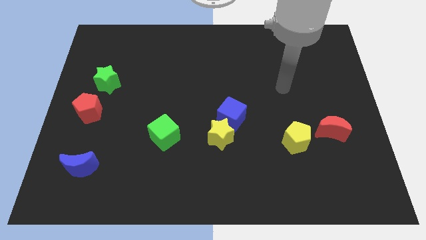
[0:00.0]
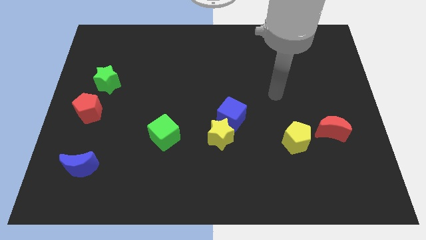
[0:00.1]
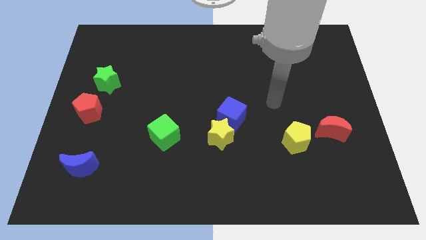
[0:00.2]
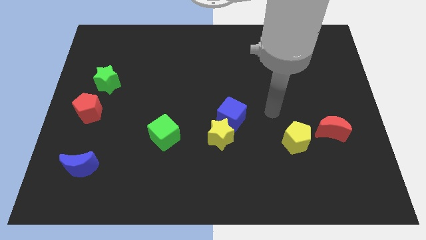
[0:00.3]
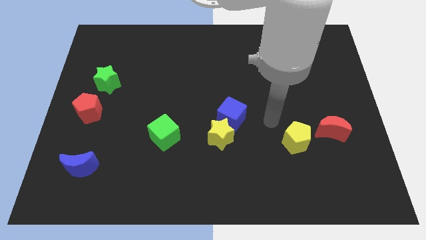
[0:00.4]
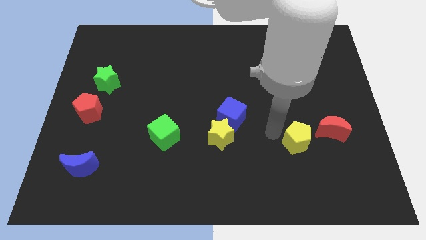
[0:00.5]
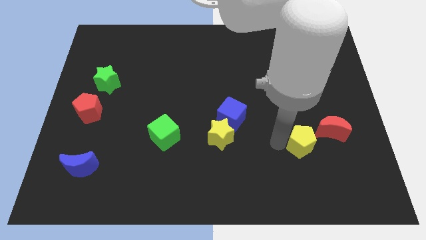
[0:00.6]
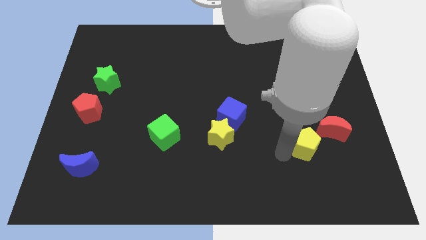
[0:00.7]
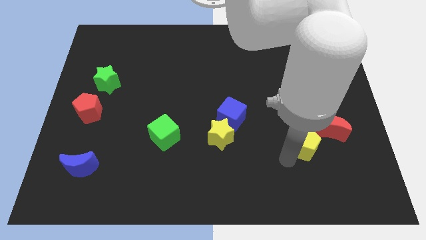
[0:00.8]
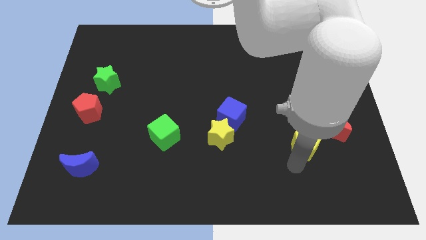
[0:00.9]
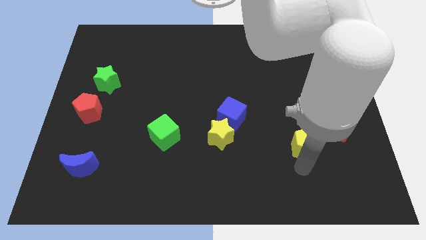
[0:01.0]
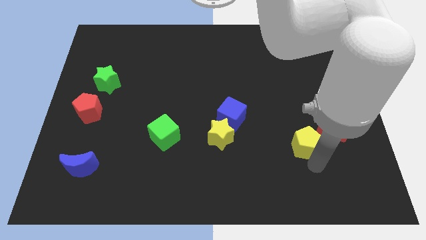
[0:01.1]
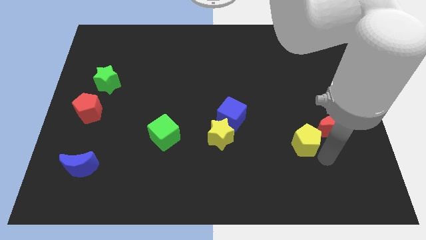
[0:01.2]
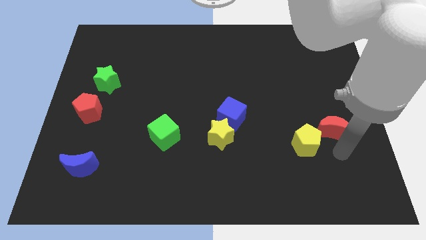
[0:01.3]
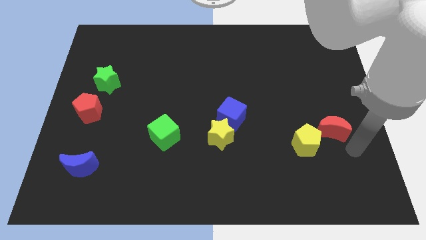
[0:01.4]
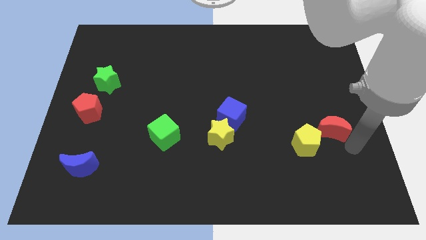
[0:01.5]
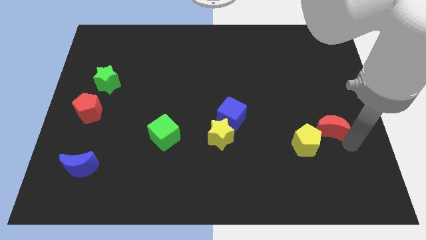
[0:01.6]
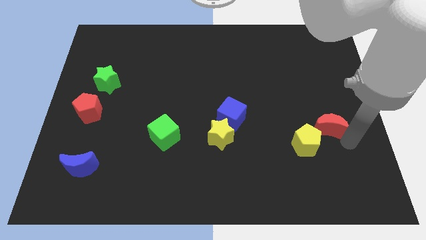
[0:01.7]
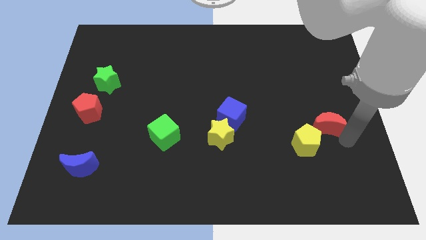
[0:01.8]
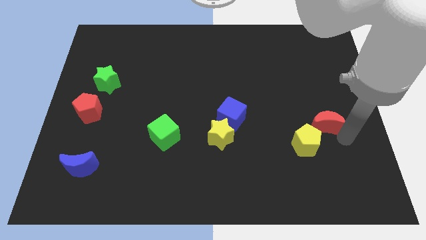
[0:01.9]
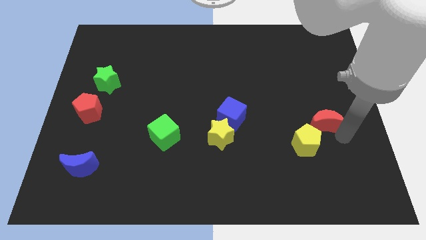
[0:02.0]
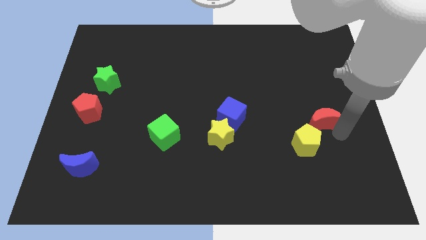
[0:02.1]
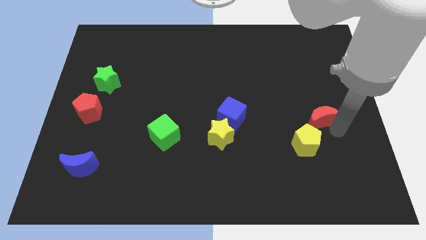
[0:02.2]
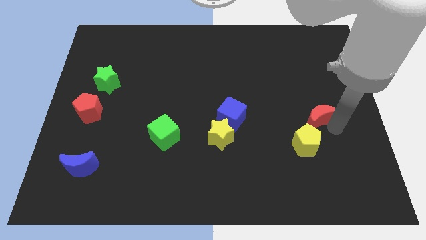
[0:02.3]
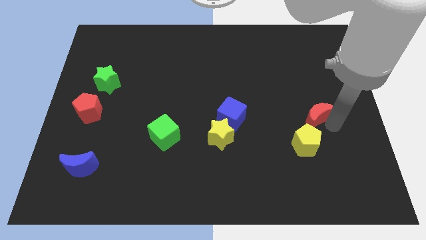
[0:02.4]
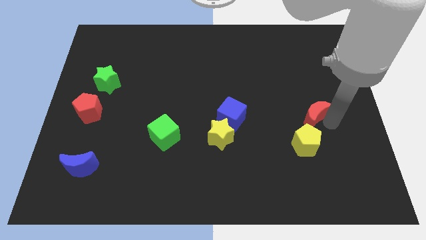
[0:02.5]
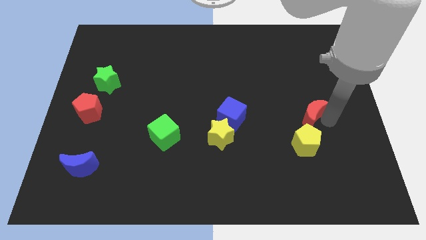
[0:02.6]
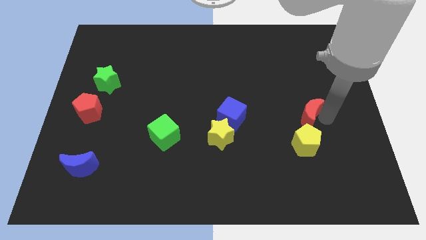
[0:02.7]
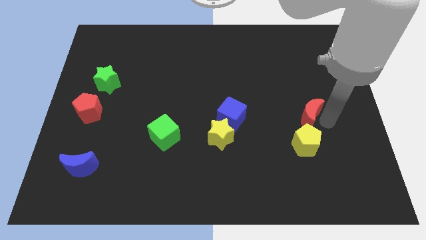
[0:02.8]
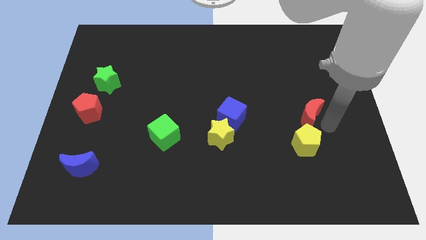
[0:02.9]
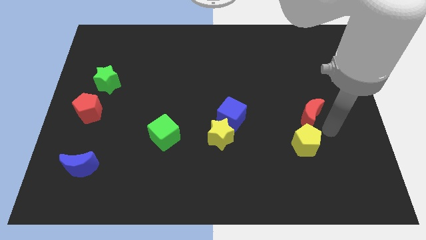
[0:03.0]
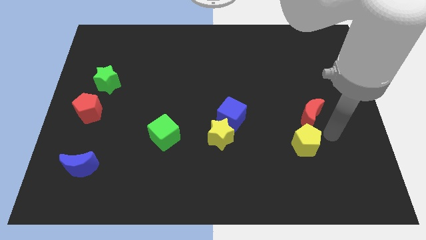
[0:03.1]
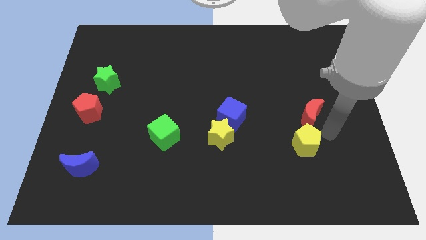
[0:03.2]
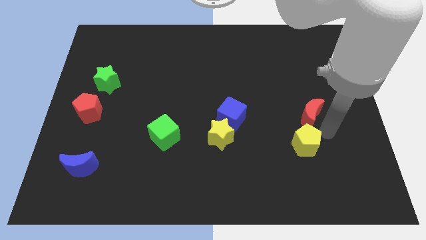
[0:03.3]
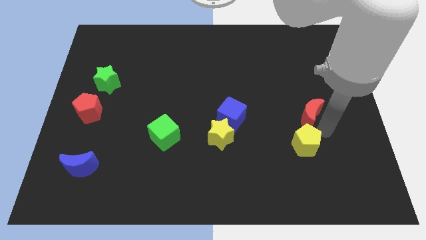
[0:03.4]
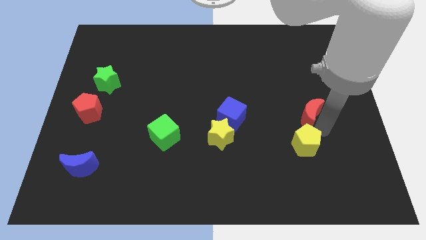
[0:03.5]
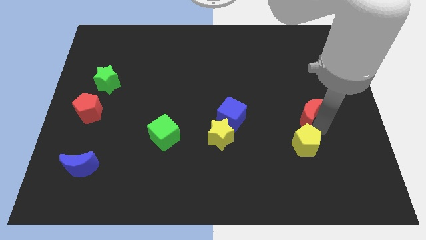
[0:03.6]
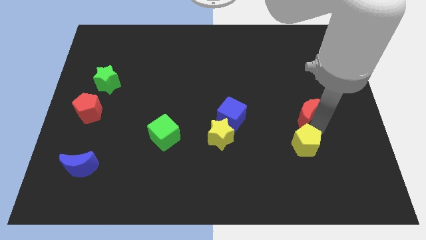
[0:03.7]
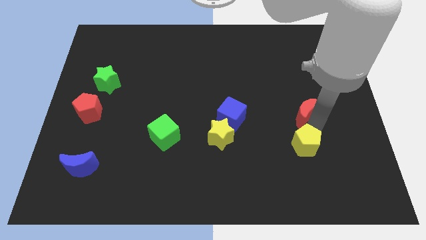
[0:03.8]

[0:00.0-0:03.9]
slightly push the red moon up and then to the left

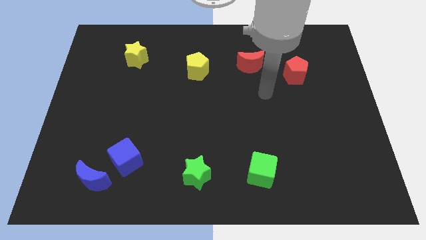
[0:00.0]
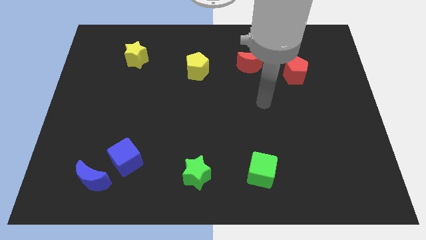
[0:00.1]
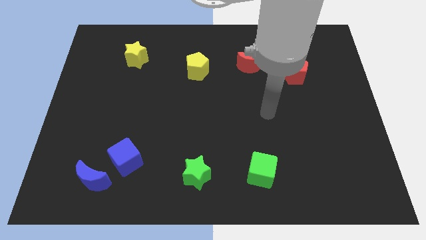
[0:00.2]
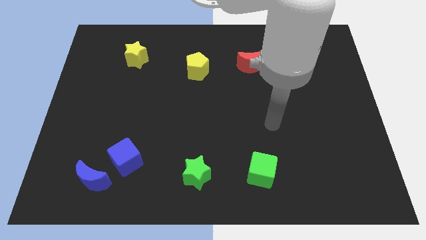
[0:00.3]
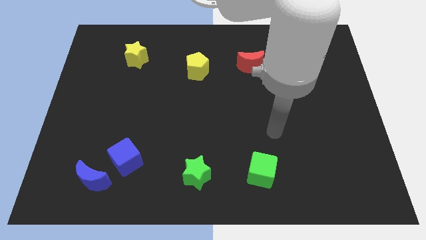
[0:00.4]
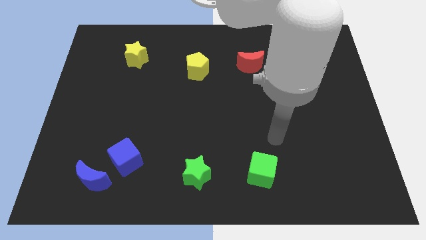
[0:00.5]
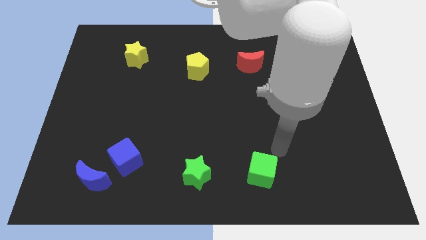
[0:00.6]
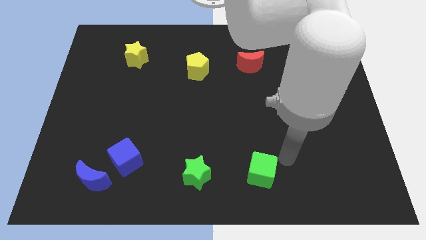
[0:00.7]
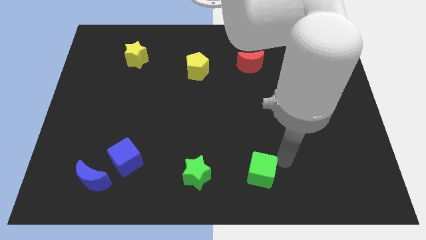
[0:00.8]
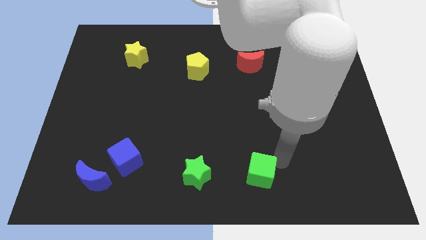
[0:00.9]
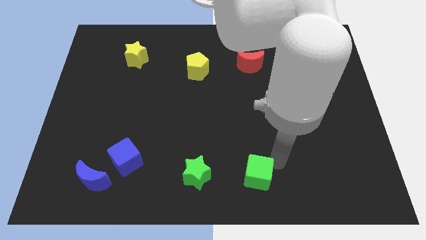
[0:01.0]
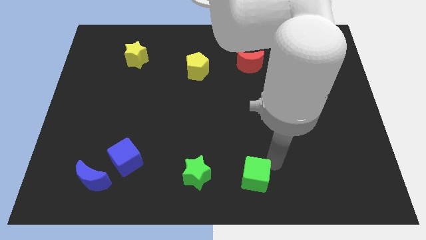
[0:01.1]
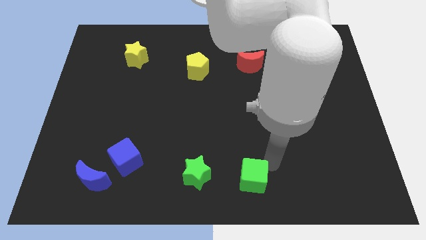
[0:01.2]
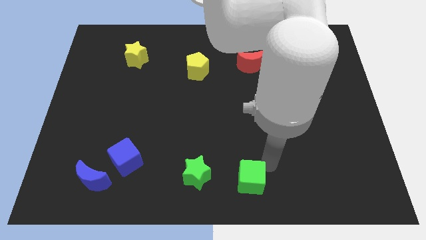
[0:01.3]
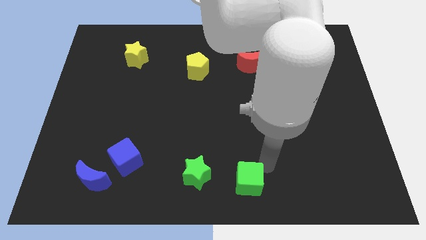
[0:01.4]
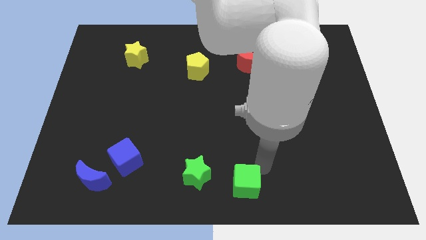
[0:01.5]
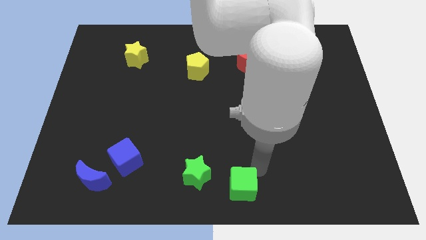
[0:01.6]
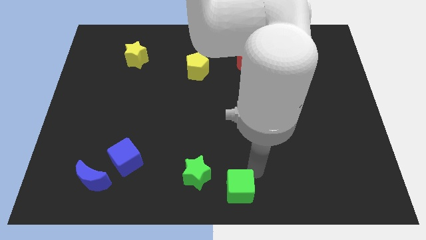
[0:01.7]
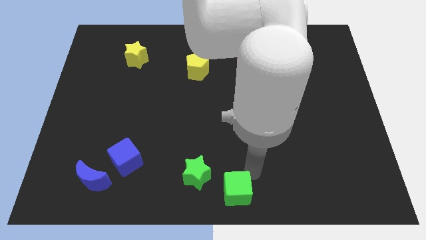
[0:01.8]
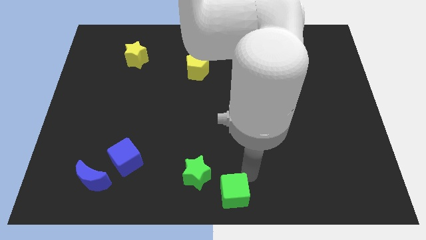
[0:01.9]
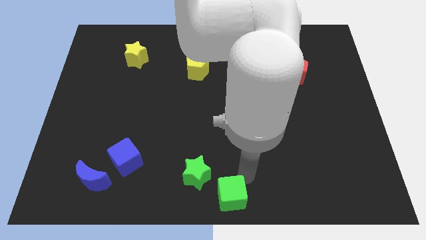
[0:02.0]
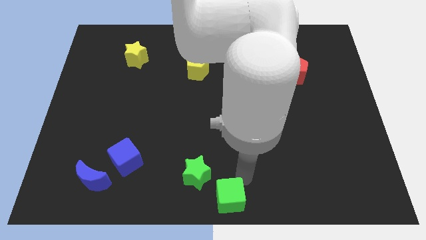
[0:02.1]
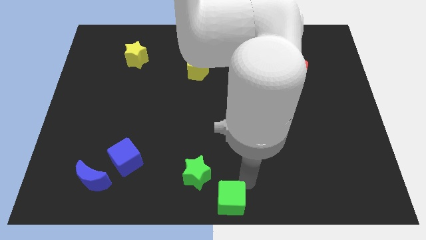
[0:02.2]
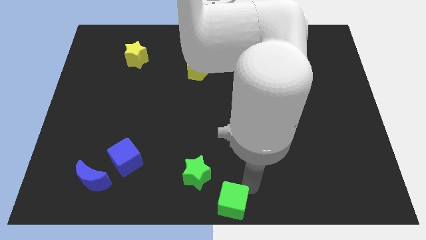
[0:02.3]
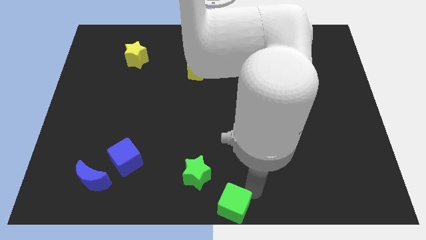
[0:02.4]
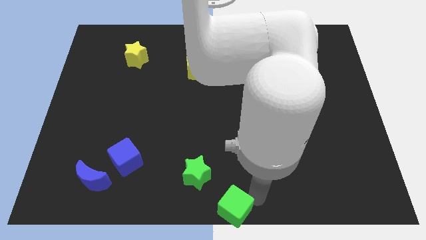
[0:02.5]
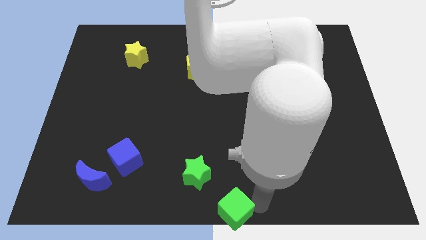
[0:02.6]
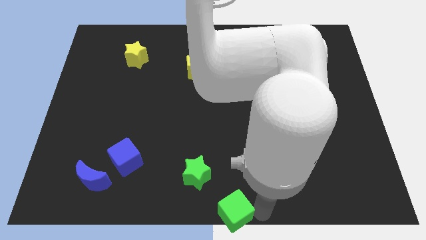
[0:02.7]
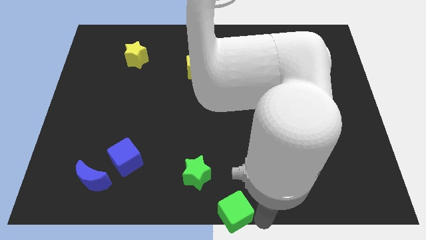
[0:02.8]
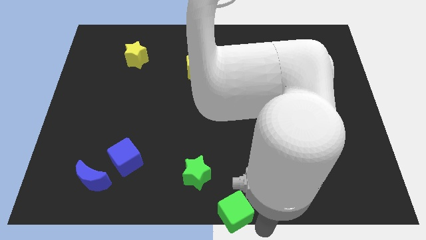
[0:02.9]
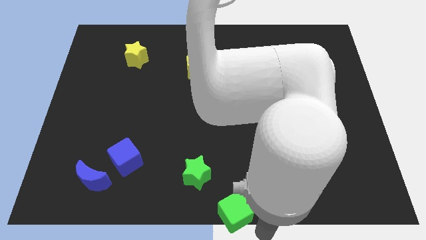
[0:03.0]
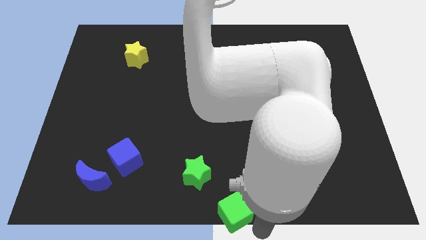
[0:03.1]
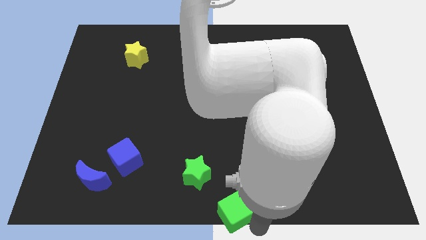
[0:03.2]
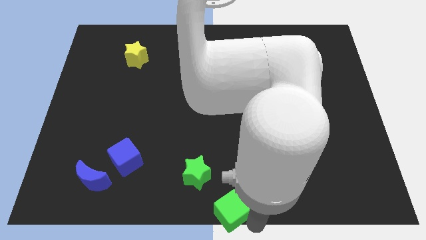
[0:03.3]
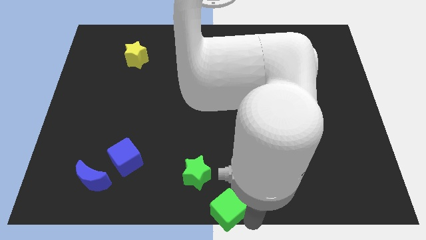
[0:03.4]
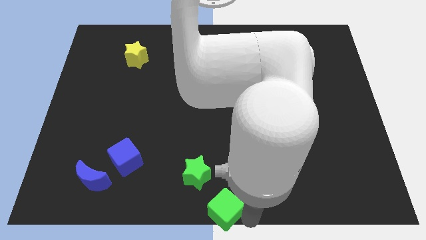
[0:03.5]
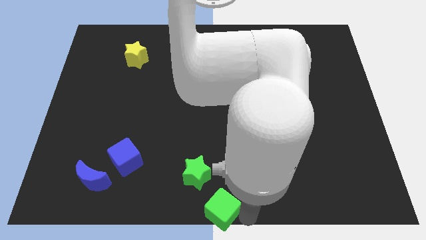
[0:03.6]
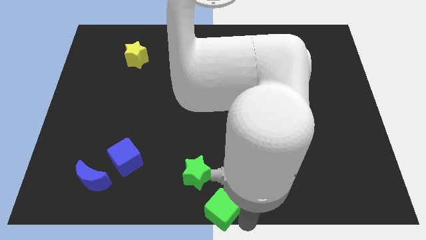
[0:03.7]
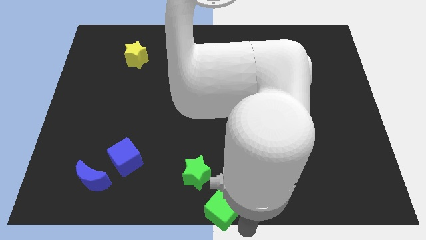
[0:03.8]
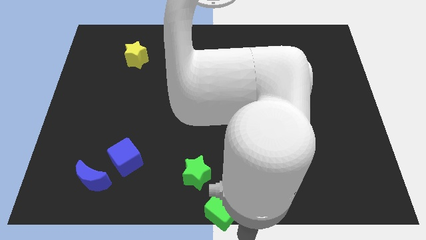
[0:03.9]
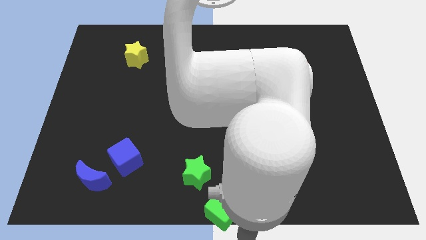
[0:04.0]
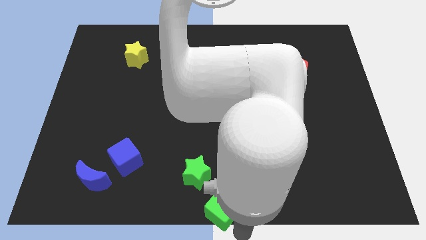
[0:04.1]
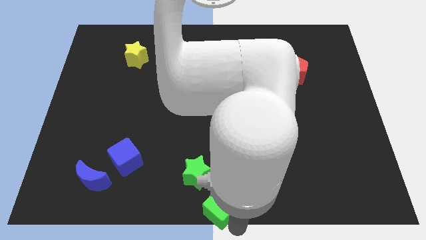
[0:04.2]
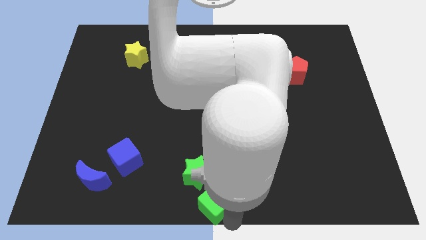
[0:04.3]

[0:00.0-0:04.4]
push the green cube a bit to the left
